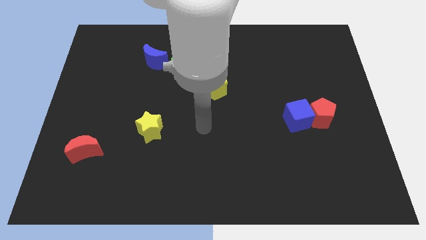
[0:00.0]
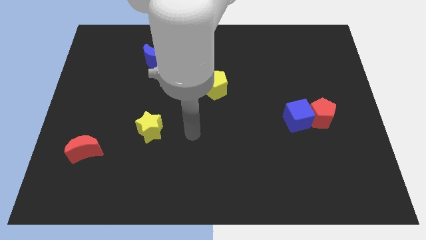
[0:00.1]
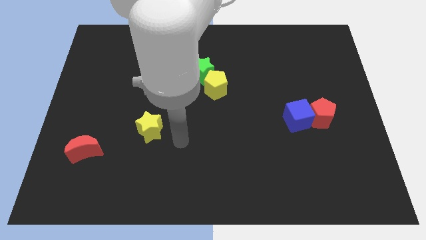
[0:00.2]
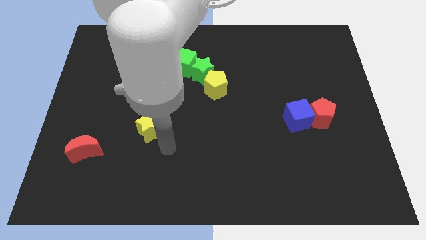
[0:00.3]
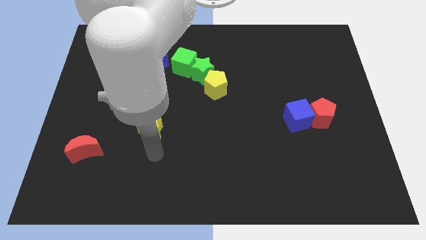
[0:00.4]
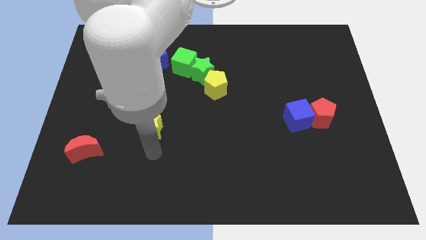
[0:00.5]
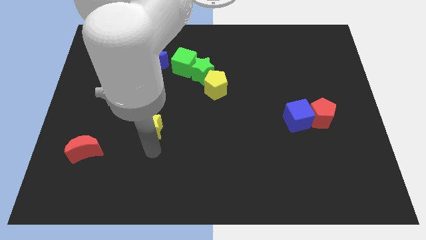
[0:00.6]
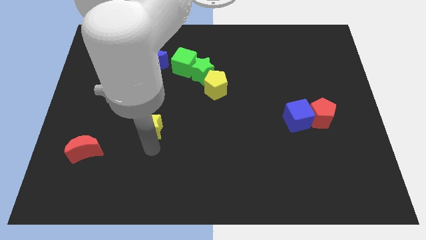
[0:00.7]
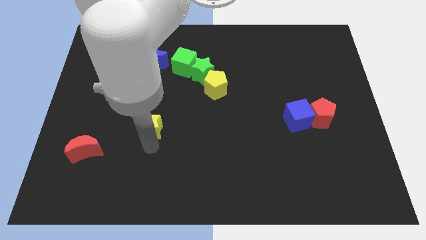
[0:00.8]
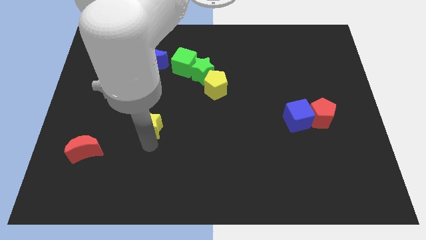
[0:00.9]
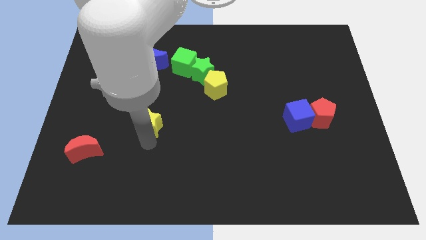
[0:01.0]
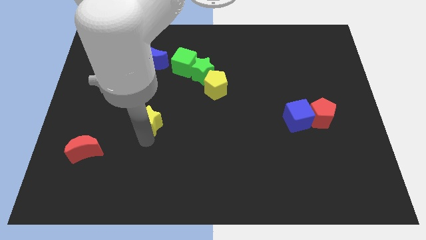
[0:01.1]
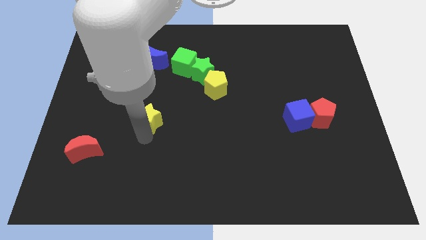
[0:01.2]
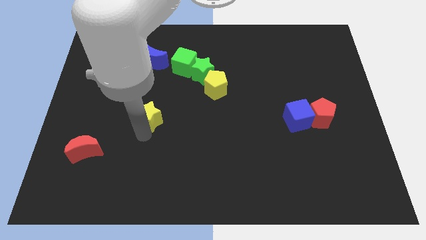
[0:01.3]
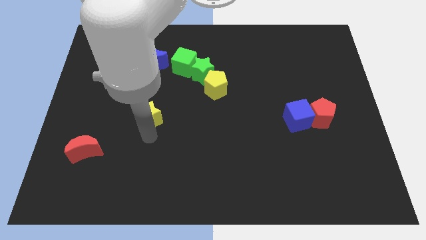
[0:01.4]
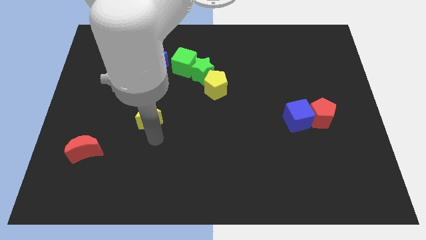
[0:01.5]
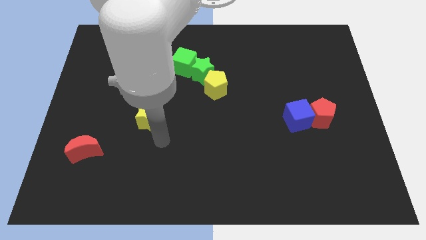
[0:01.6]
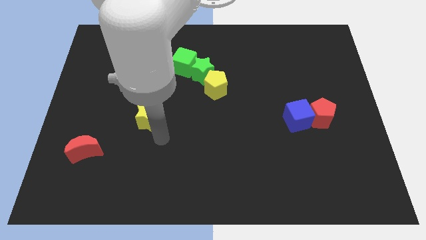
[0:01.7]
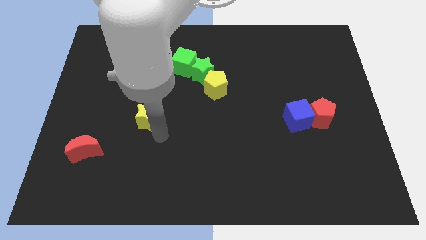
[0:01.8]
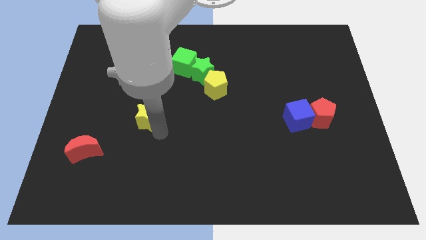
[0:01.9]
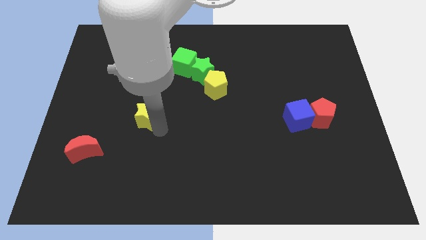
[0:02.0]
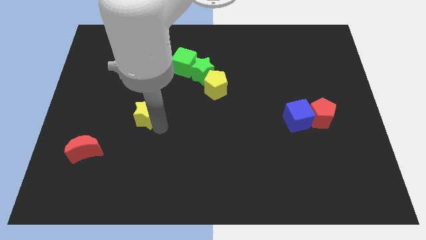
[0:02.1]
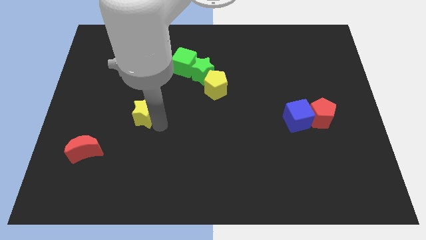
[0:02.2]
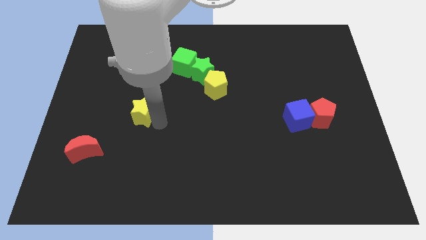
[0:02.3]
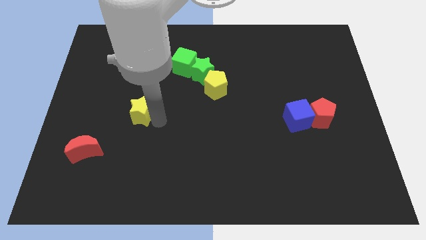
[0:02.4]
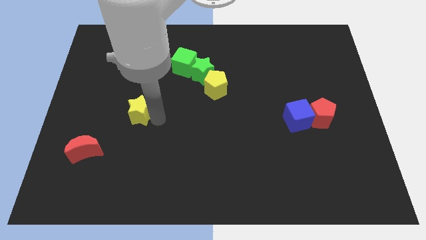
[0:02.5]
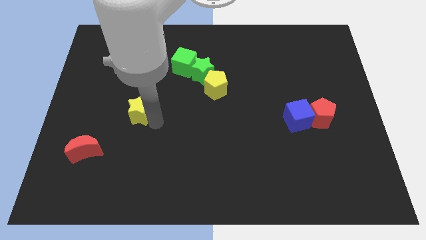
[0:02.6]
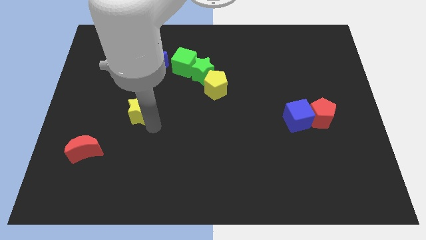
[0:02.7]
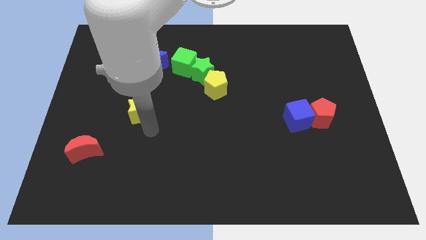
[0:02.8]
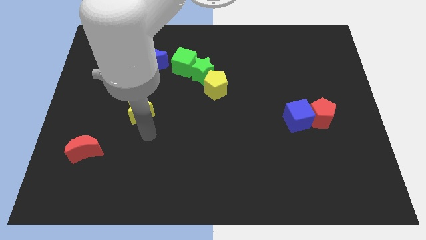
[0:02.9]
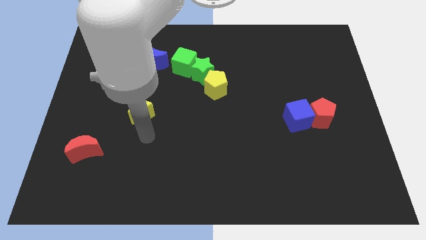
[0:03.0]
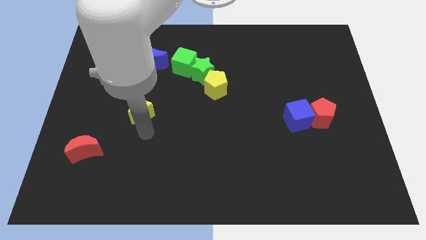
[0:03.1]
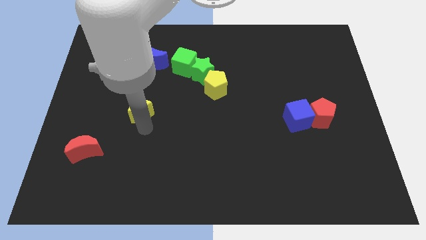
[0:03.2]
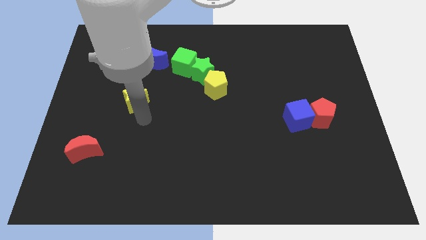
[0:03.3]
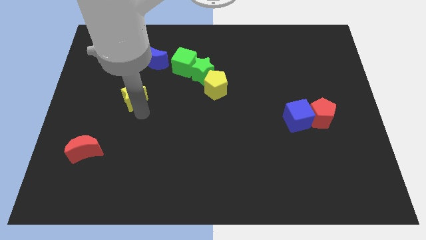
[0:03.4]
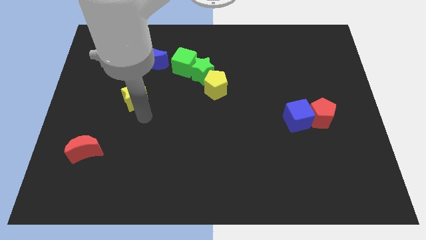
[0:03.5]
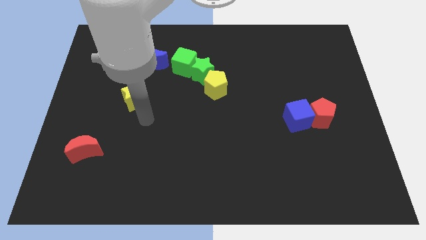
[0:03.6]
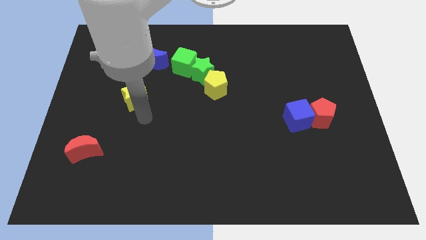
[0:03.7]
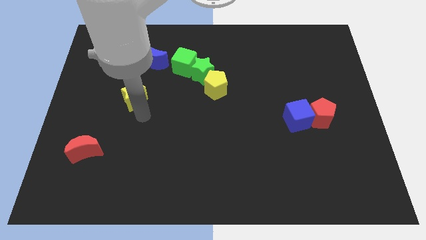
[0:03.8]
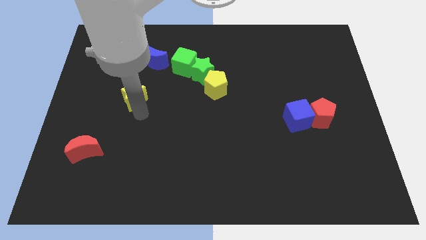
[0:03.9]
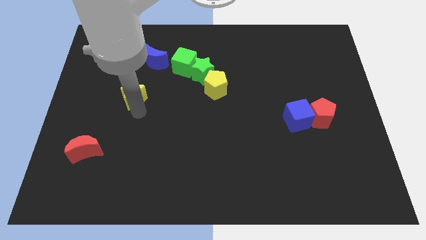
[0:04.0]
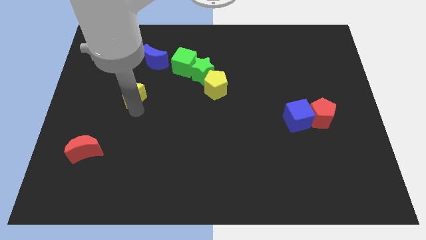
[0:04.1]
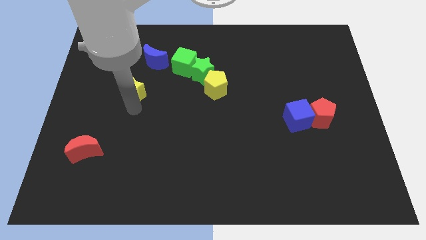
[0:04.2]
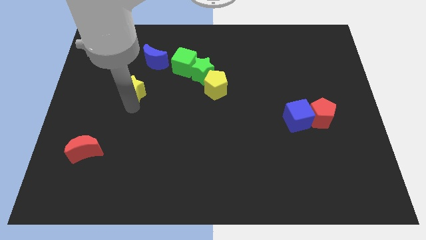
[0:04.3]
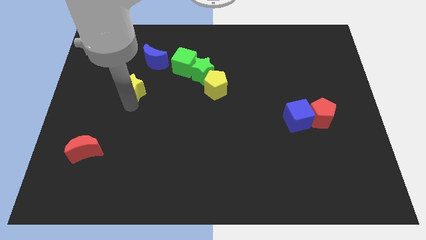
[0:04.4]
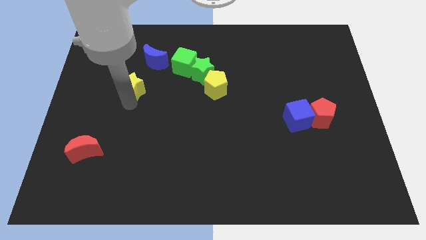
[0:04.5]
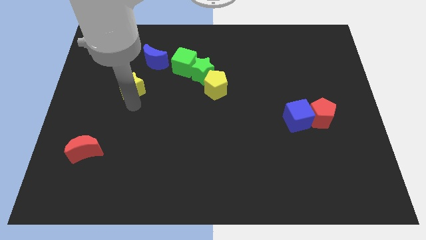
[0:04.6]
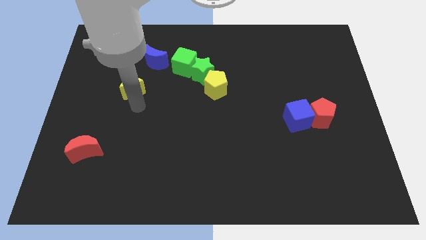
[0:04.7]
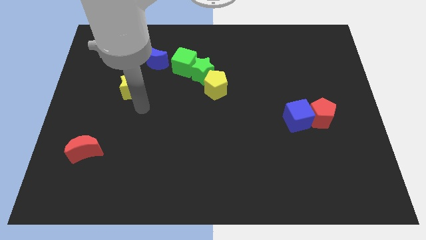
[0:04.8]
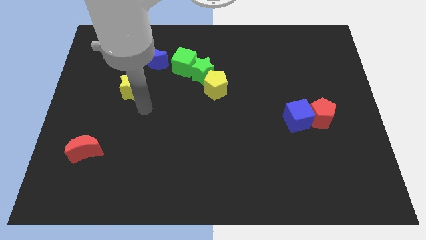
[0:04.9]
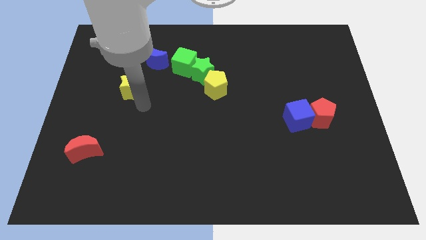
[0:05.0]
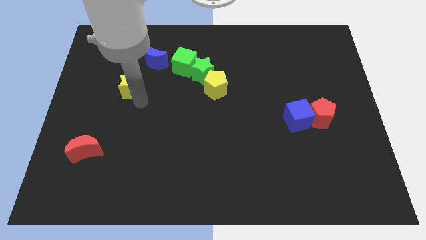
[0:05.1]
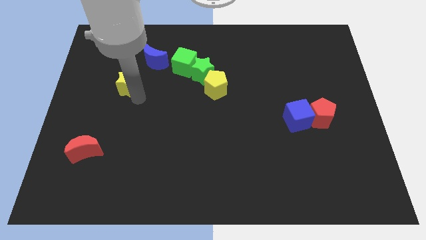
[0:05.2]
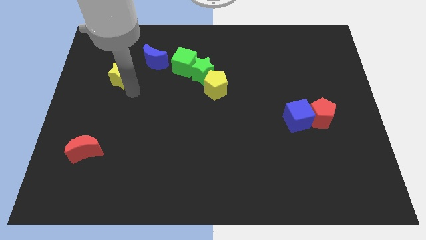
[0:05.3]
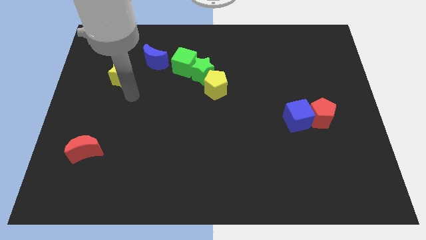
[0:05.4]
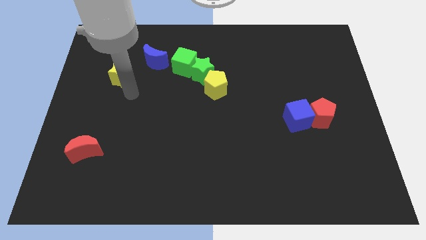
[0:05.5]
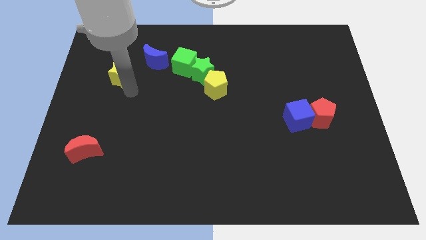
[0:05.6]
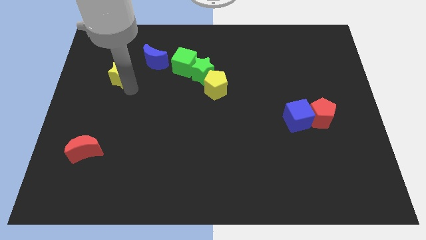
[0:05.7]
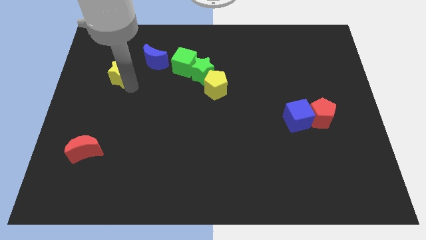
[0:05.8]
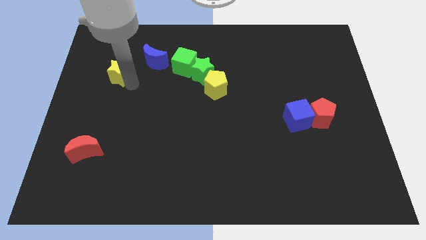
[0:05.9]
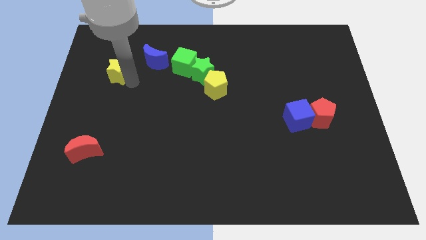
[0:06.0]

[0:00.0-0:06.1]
put the yellow star to the left of the blue moon

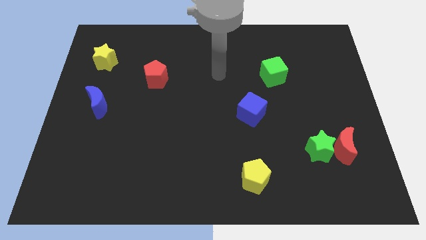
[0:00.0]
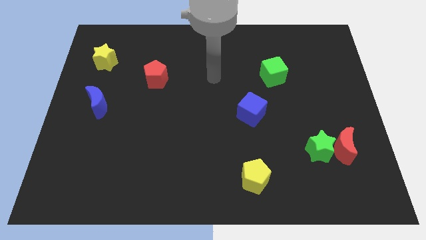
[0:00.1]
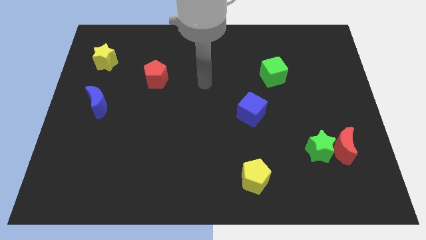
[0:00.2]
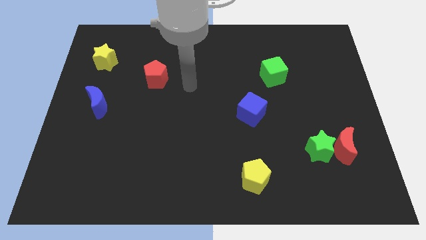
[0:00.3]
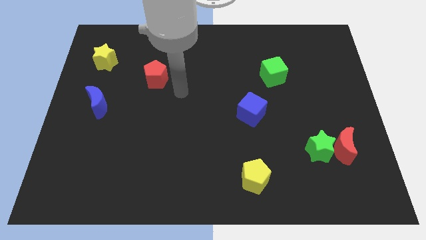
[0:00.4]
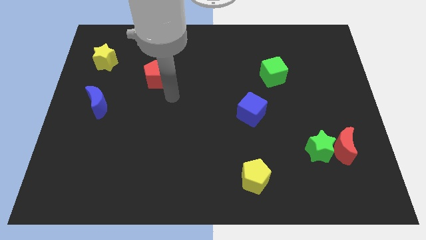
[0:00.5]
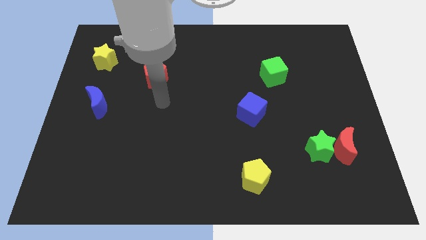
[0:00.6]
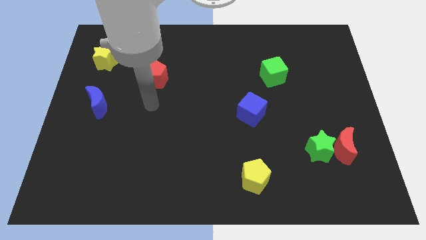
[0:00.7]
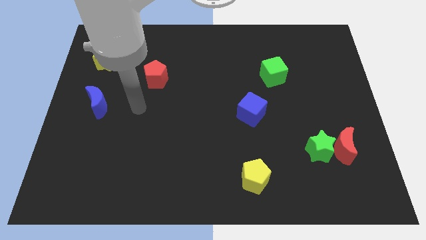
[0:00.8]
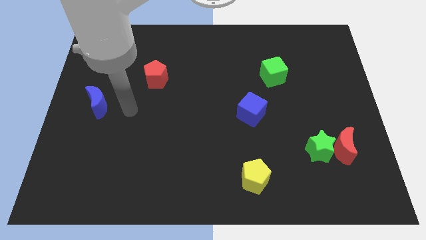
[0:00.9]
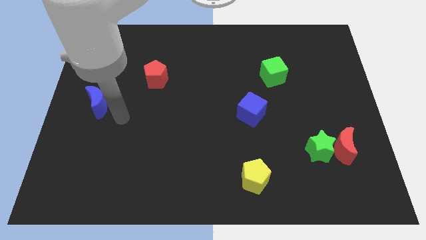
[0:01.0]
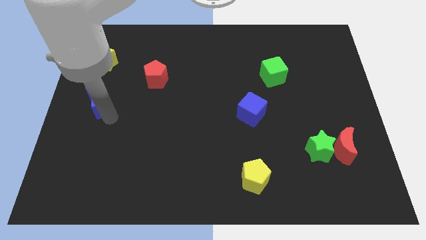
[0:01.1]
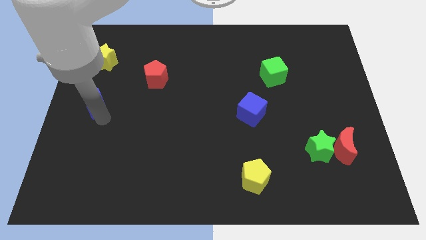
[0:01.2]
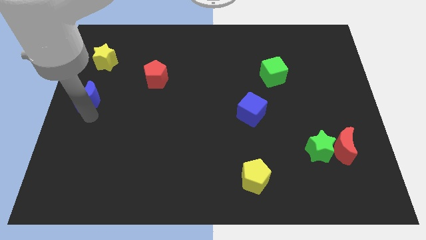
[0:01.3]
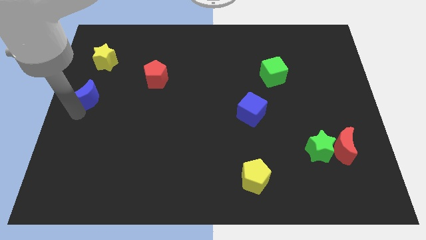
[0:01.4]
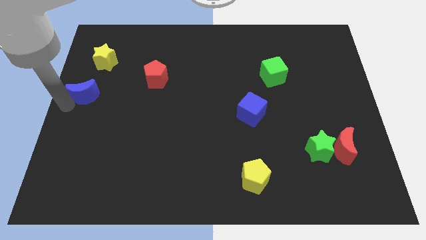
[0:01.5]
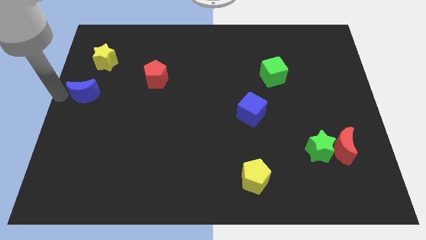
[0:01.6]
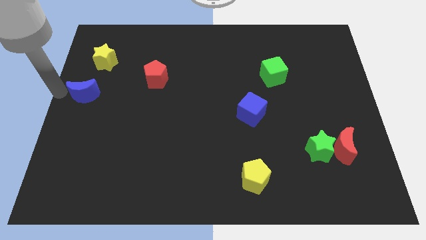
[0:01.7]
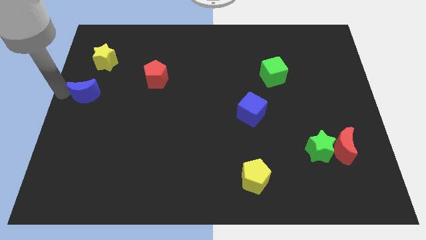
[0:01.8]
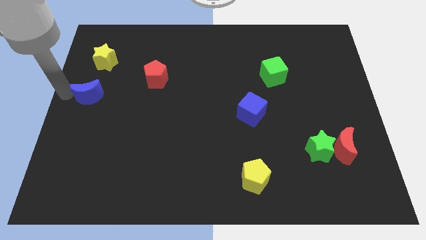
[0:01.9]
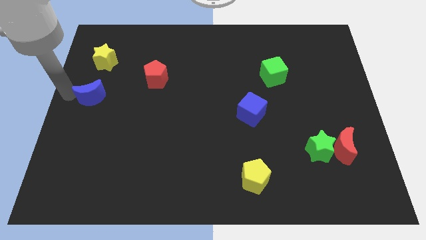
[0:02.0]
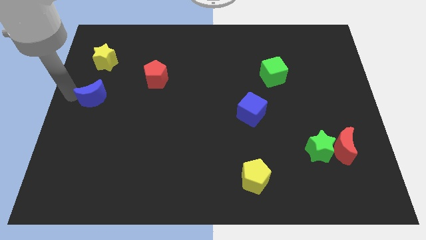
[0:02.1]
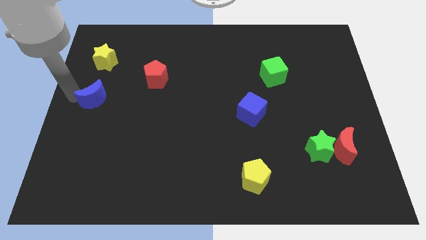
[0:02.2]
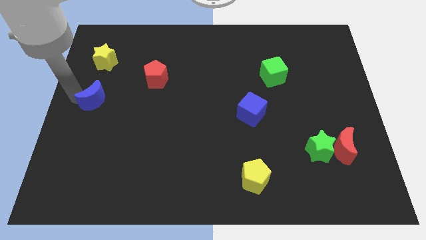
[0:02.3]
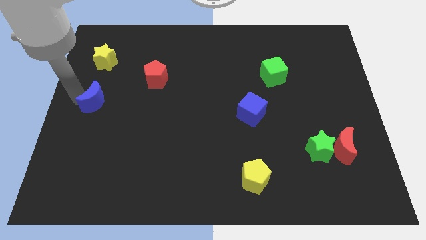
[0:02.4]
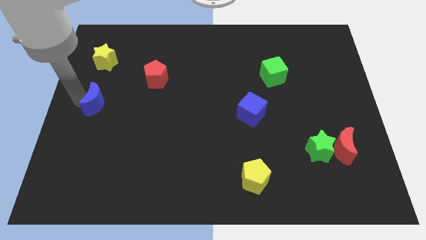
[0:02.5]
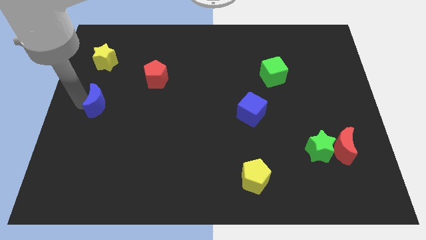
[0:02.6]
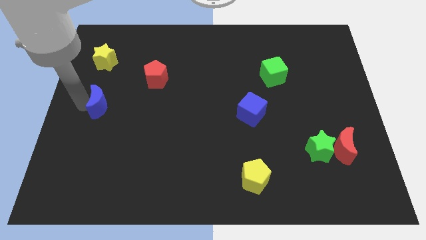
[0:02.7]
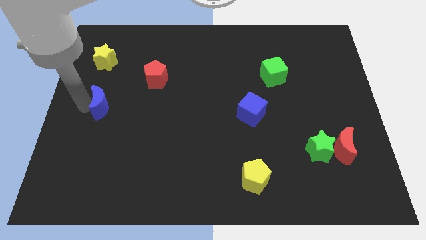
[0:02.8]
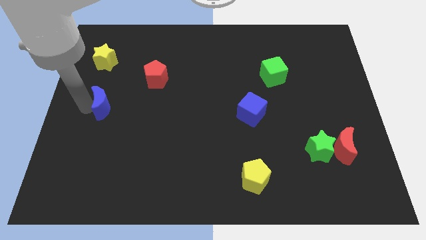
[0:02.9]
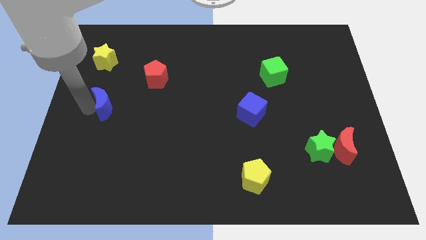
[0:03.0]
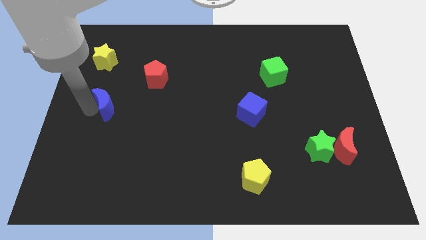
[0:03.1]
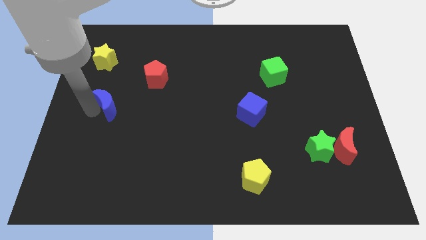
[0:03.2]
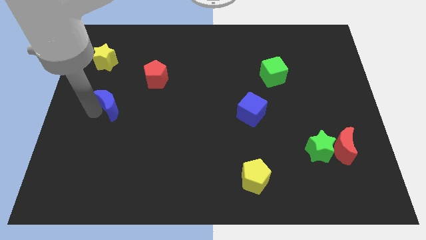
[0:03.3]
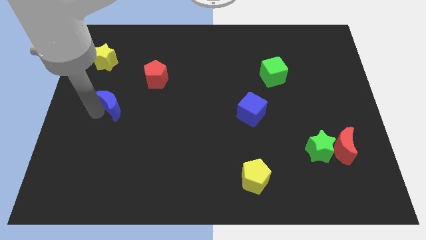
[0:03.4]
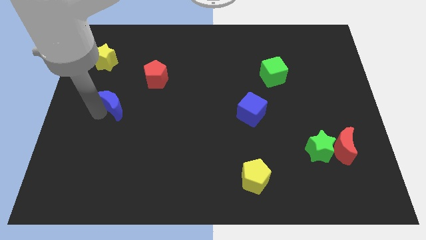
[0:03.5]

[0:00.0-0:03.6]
put the blue moon diagonally down and to the left of the red pentagon
